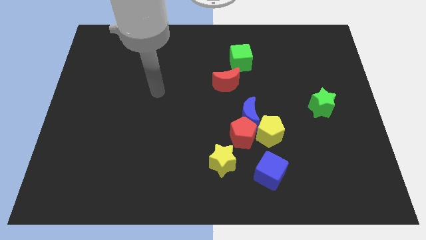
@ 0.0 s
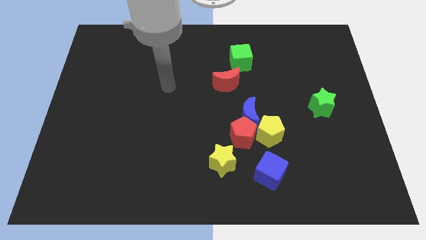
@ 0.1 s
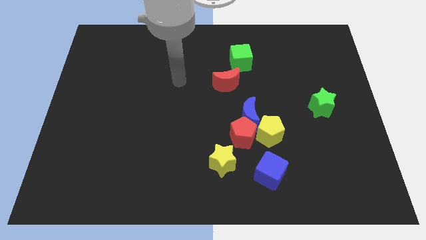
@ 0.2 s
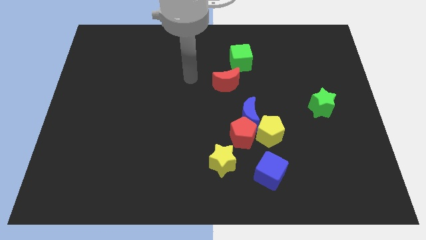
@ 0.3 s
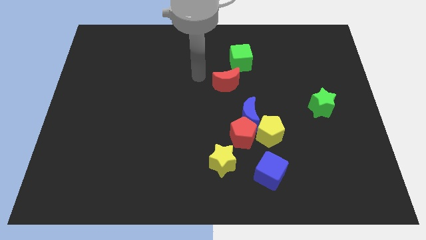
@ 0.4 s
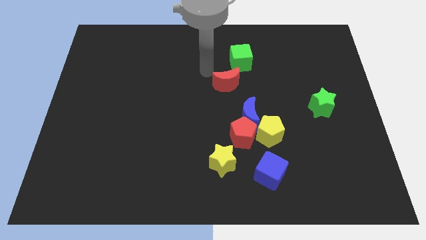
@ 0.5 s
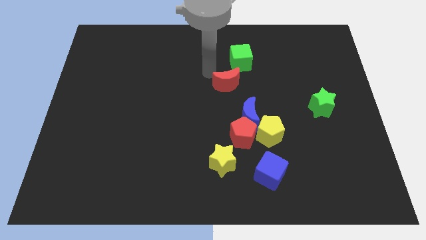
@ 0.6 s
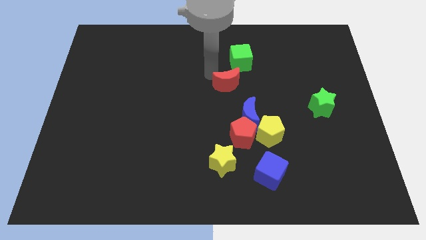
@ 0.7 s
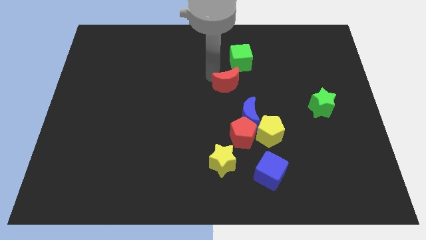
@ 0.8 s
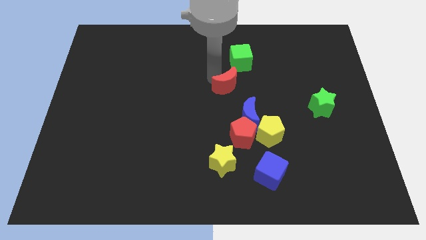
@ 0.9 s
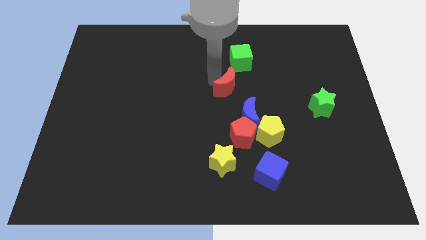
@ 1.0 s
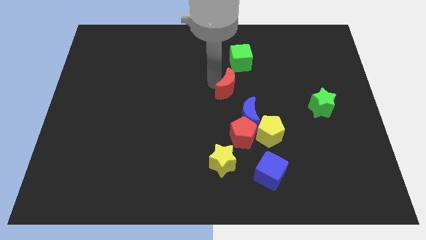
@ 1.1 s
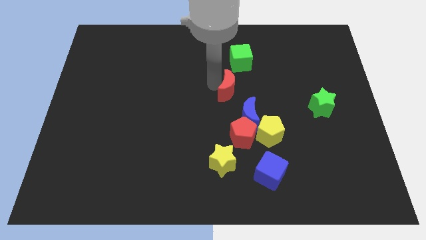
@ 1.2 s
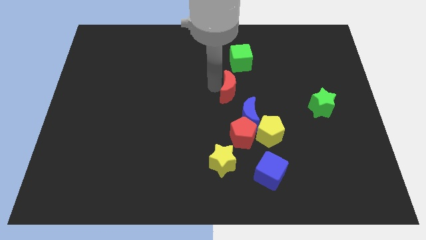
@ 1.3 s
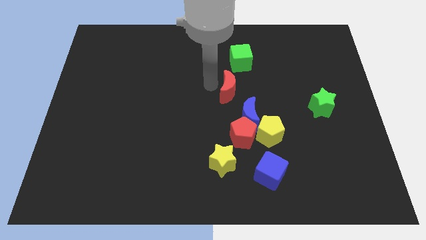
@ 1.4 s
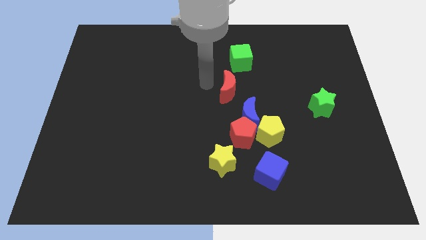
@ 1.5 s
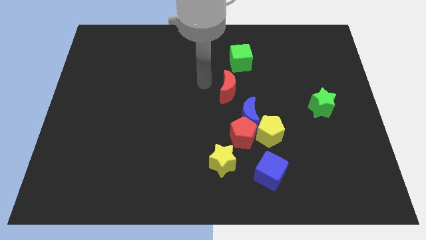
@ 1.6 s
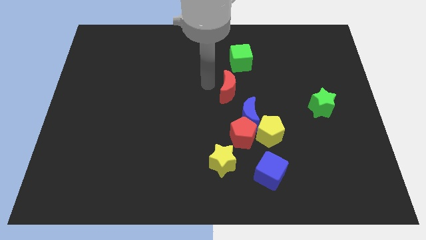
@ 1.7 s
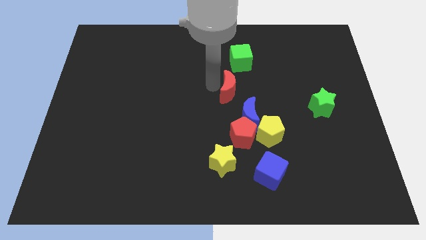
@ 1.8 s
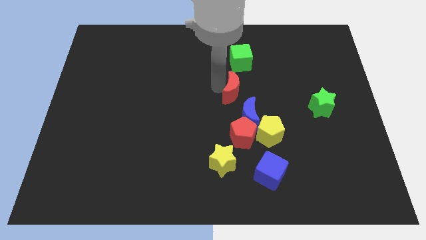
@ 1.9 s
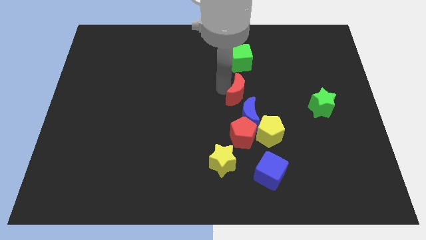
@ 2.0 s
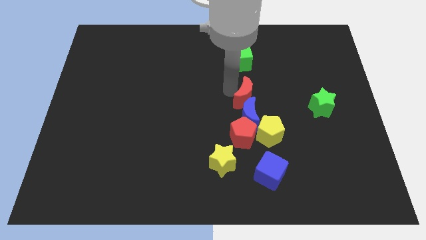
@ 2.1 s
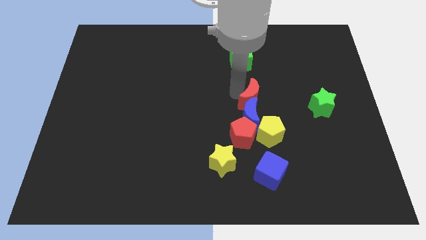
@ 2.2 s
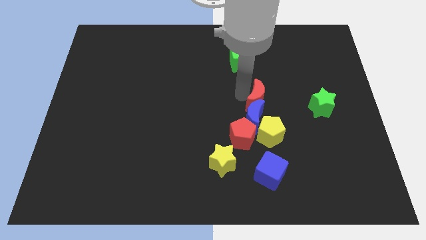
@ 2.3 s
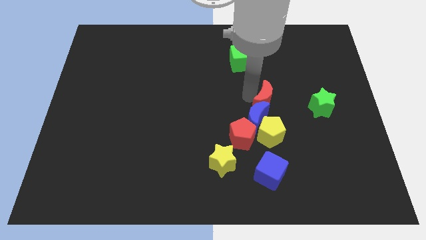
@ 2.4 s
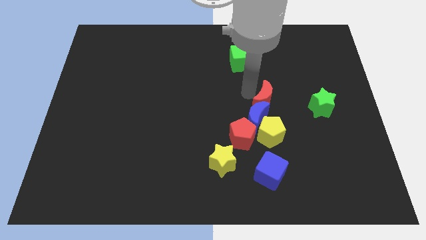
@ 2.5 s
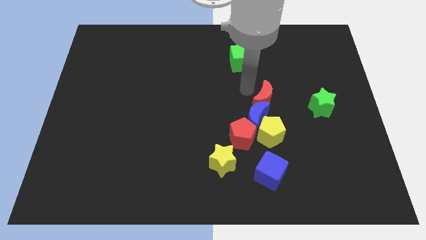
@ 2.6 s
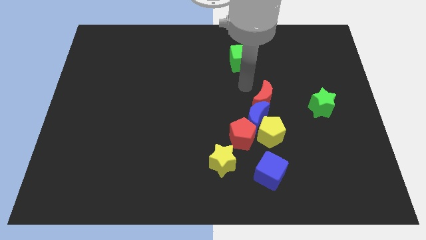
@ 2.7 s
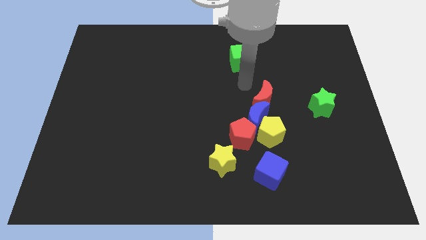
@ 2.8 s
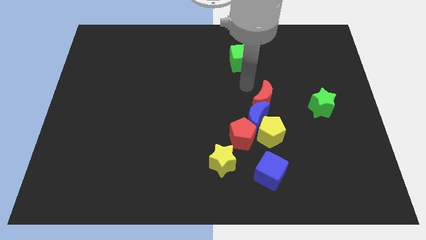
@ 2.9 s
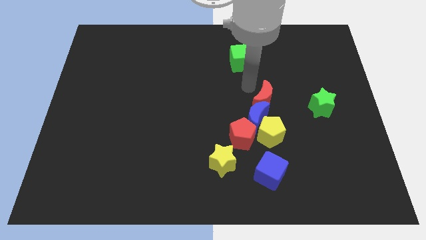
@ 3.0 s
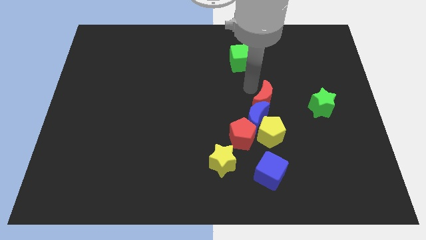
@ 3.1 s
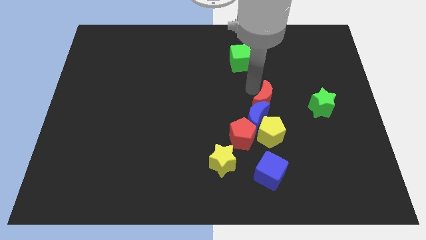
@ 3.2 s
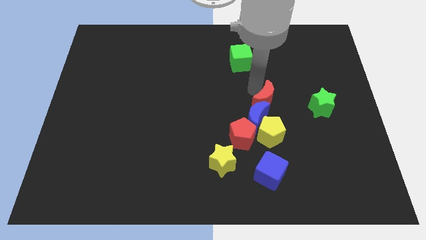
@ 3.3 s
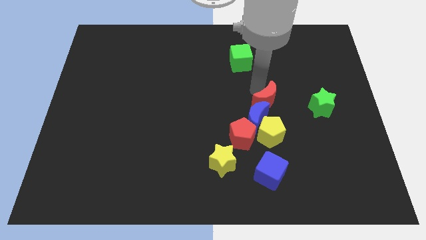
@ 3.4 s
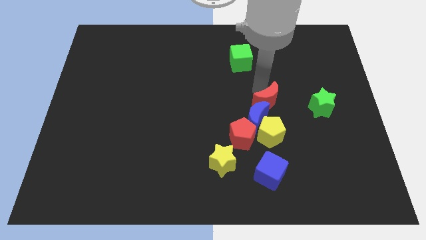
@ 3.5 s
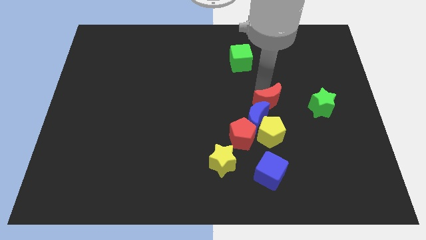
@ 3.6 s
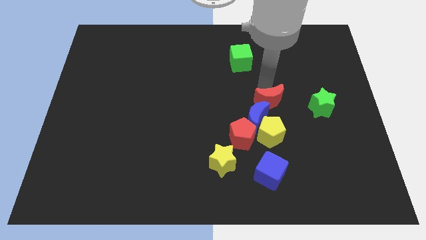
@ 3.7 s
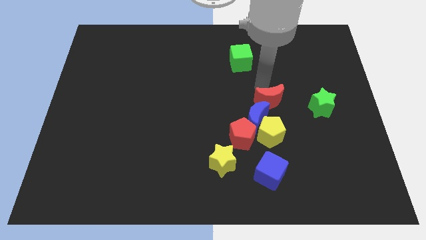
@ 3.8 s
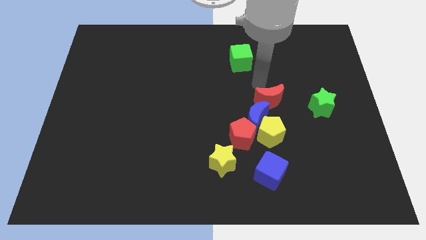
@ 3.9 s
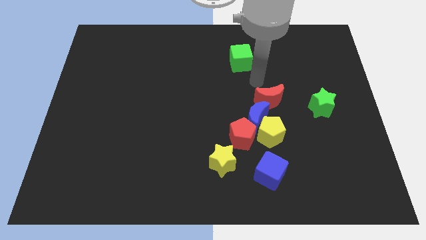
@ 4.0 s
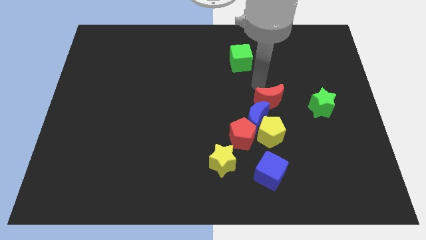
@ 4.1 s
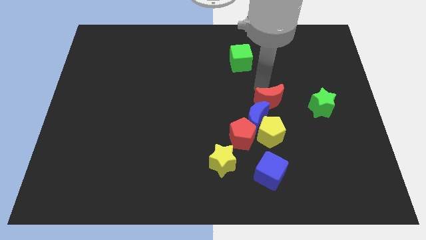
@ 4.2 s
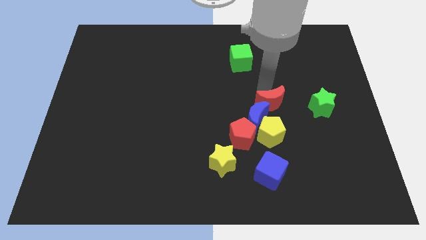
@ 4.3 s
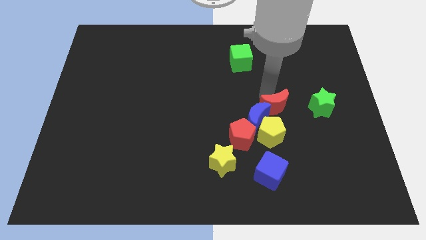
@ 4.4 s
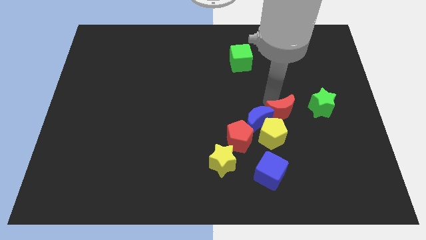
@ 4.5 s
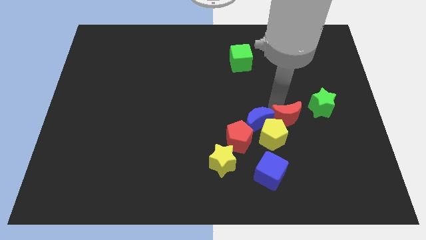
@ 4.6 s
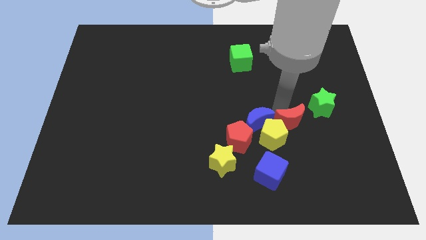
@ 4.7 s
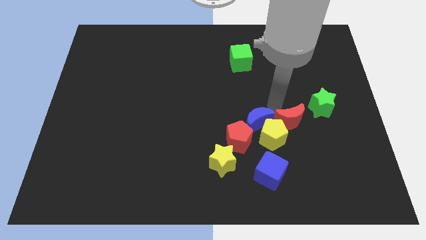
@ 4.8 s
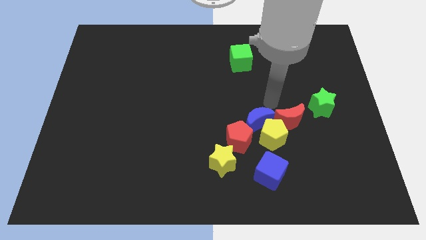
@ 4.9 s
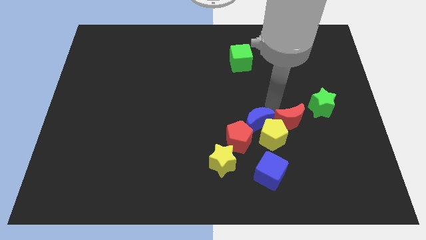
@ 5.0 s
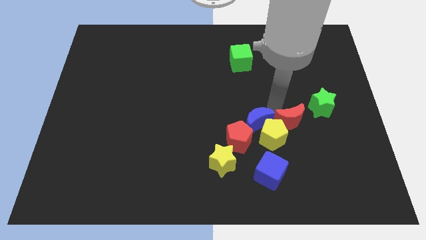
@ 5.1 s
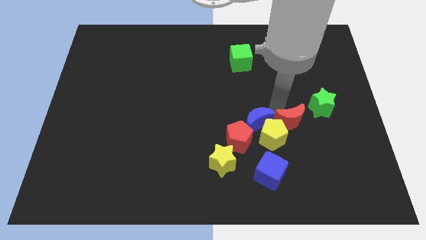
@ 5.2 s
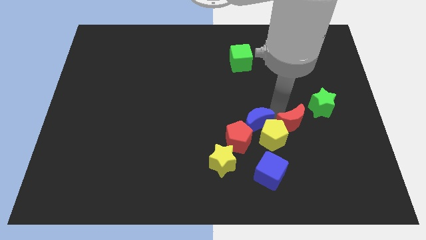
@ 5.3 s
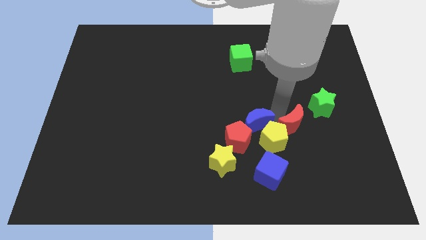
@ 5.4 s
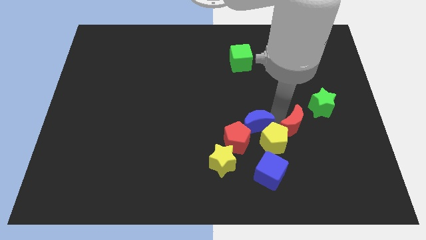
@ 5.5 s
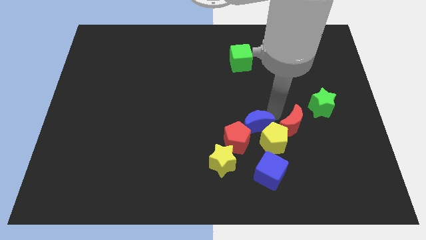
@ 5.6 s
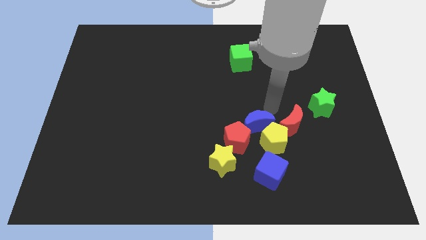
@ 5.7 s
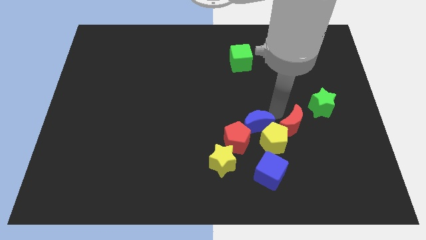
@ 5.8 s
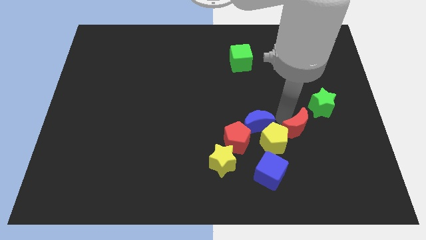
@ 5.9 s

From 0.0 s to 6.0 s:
move the red moon downwards and then to the right

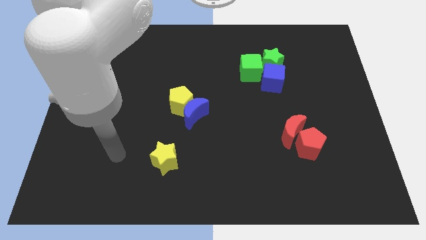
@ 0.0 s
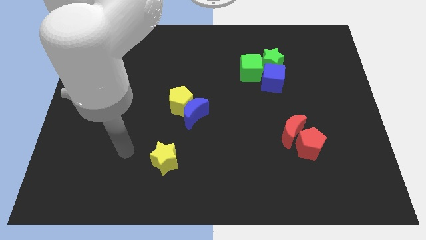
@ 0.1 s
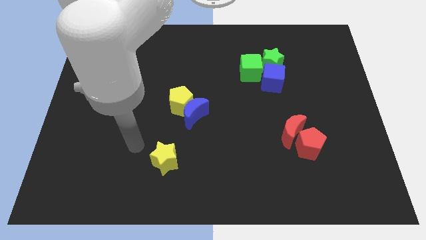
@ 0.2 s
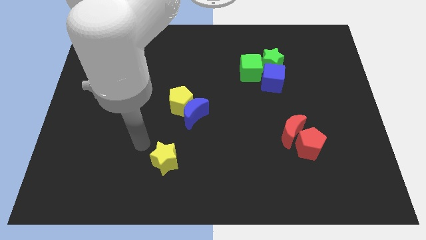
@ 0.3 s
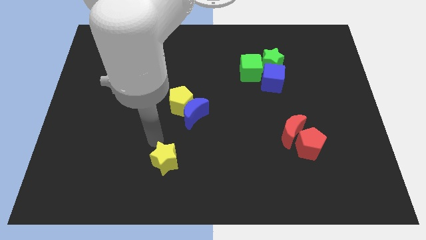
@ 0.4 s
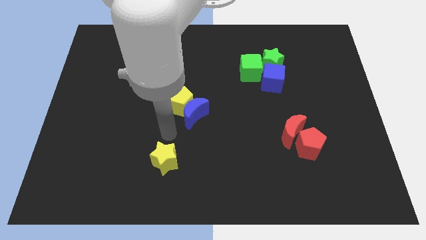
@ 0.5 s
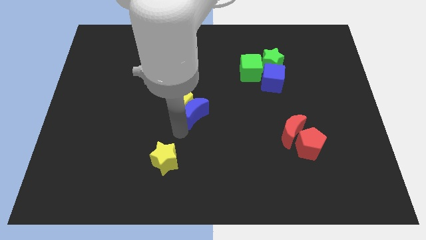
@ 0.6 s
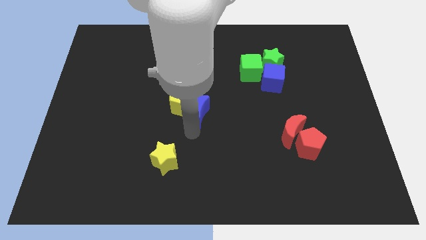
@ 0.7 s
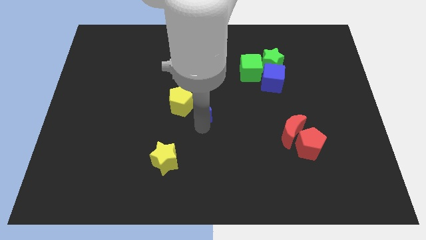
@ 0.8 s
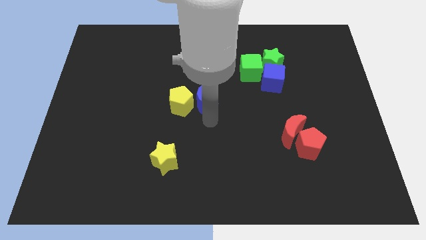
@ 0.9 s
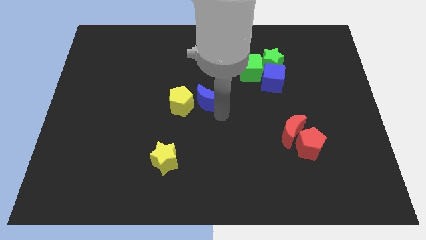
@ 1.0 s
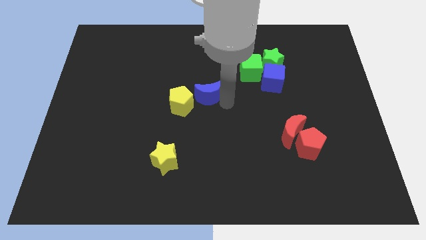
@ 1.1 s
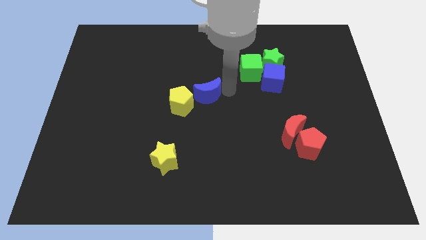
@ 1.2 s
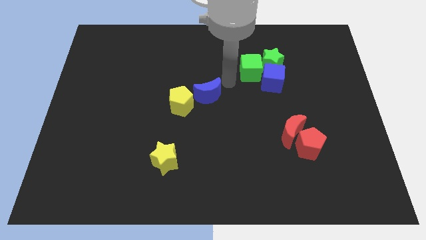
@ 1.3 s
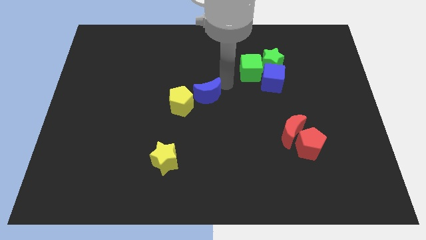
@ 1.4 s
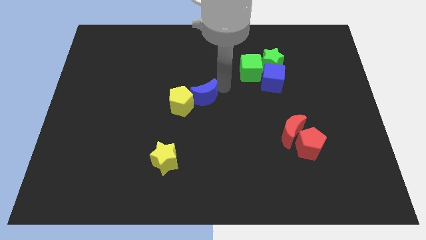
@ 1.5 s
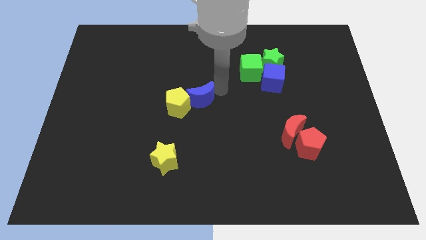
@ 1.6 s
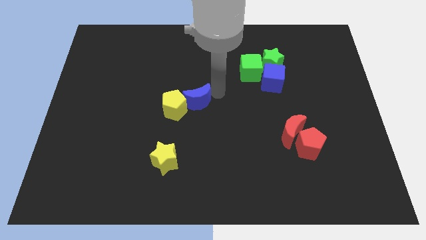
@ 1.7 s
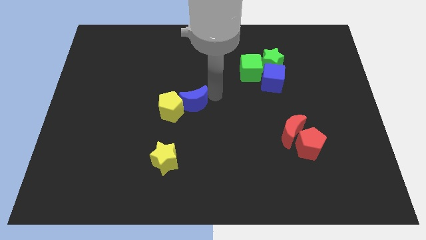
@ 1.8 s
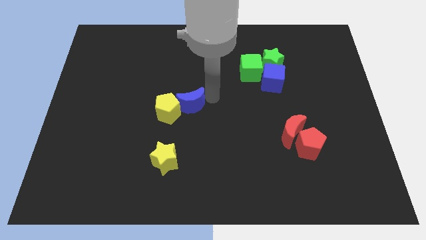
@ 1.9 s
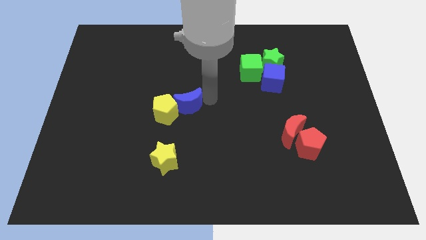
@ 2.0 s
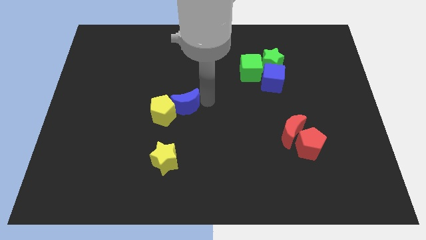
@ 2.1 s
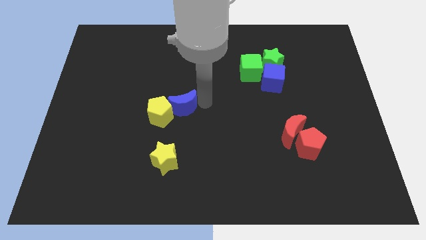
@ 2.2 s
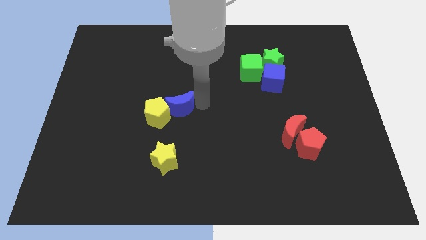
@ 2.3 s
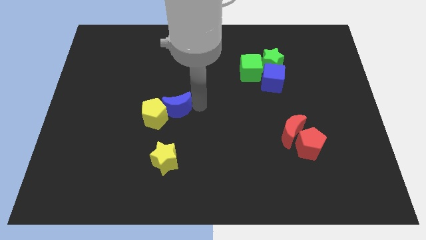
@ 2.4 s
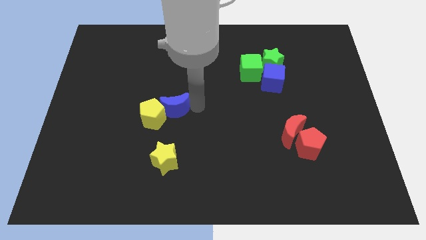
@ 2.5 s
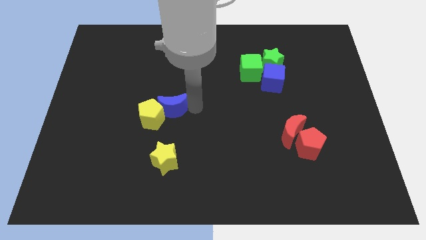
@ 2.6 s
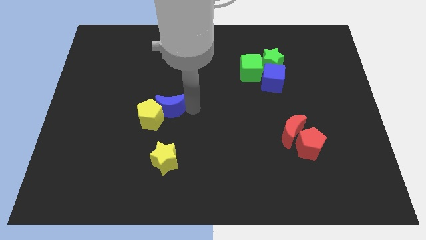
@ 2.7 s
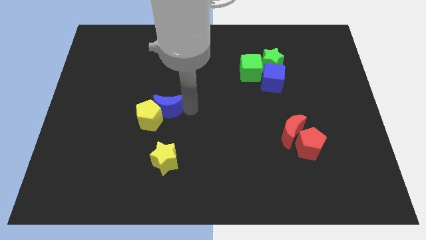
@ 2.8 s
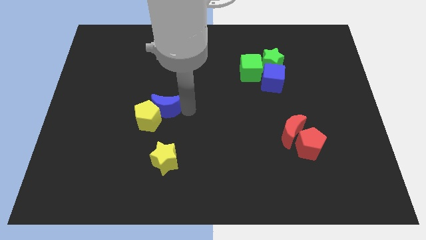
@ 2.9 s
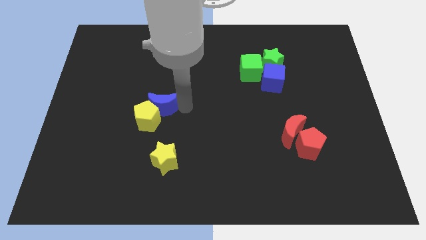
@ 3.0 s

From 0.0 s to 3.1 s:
slide the blue moon left somewhat
